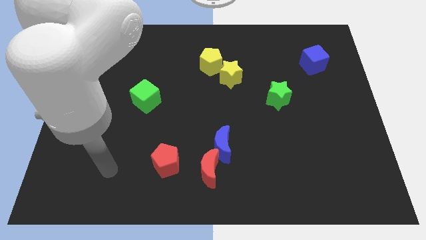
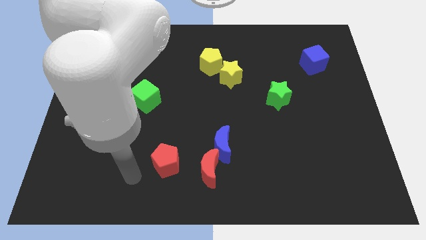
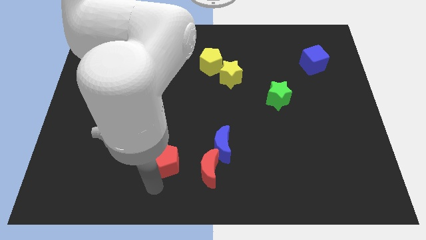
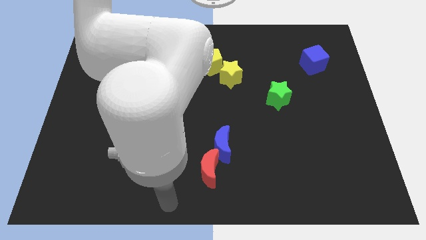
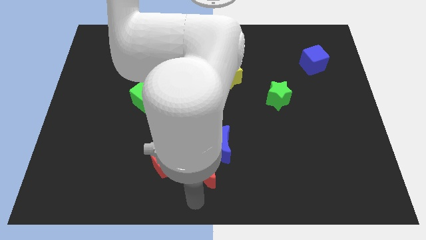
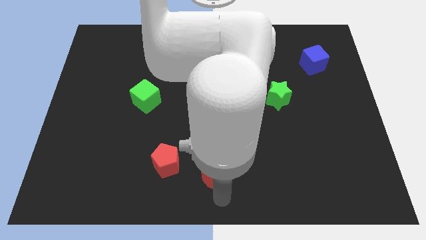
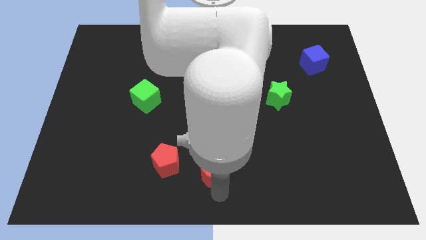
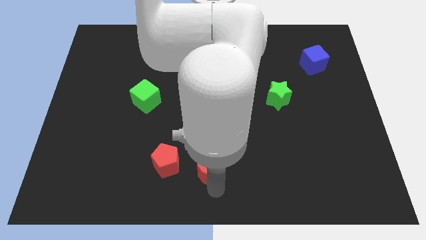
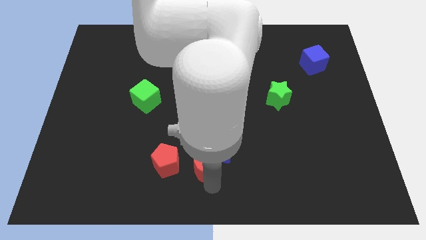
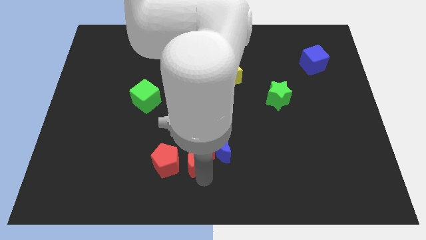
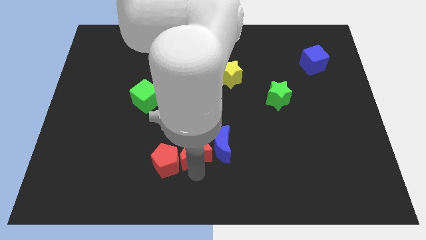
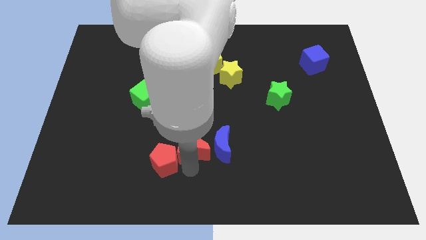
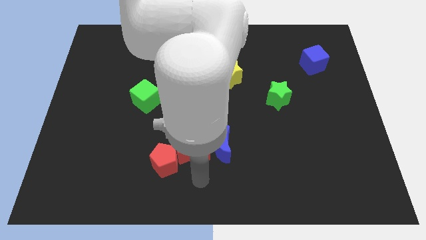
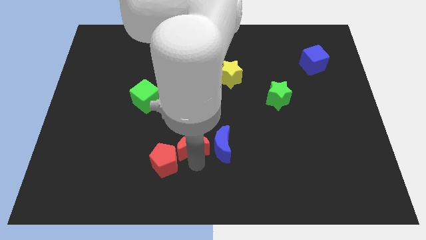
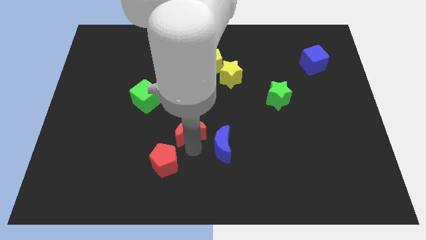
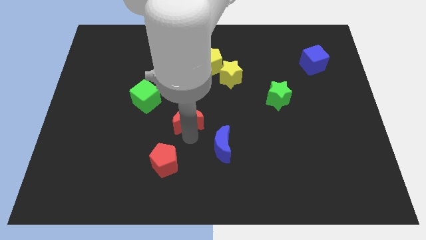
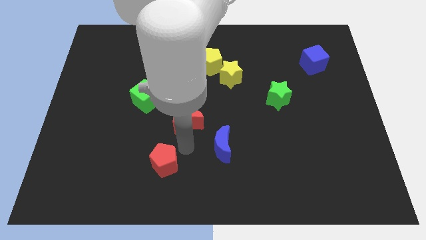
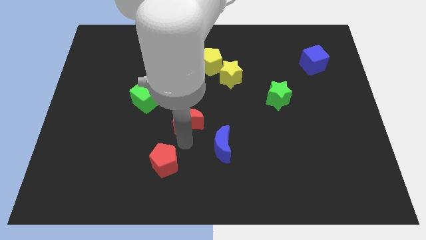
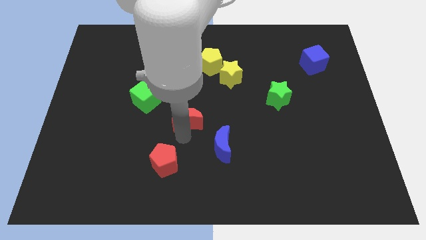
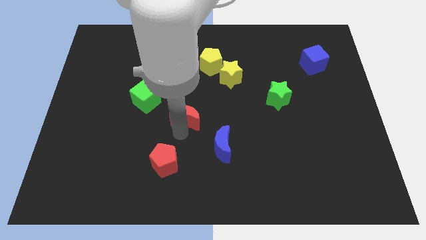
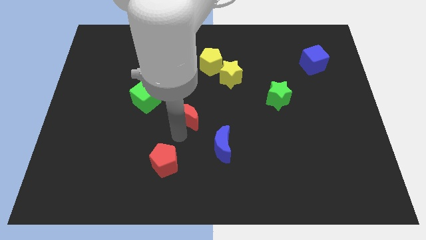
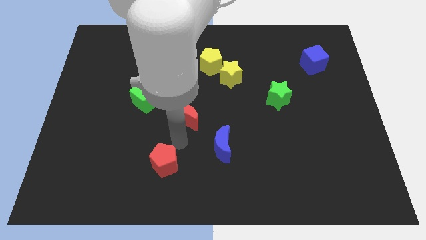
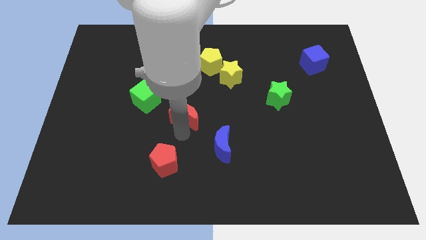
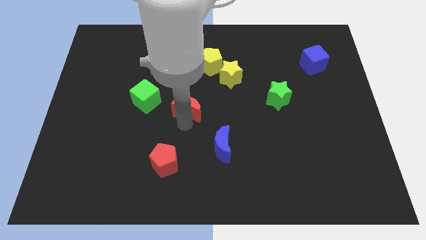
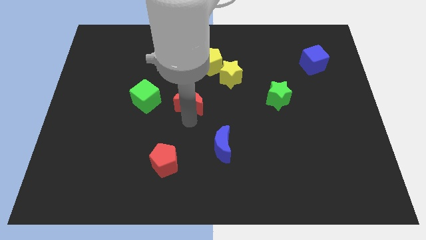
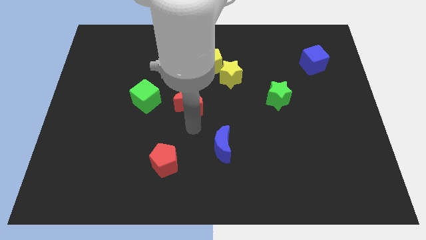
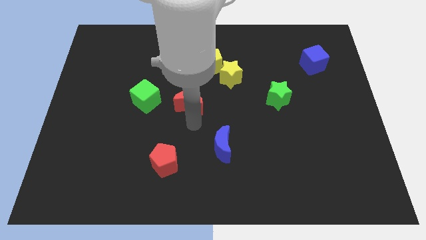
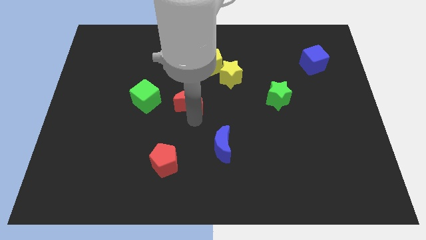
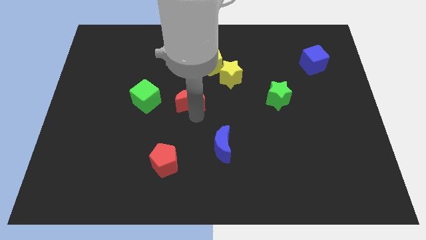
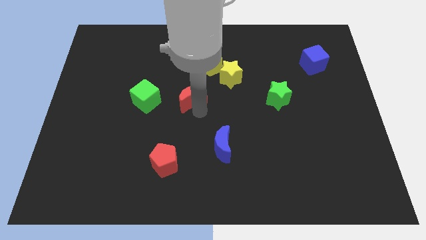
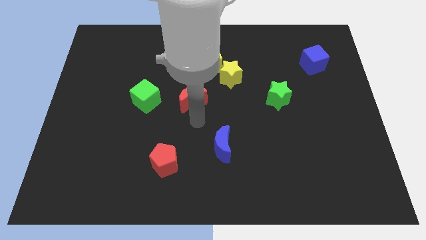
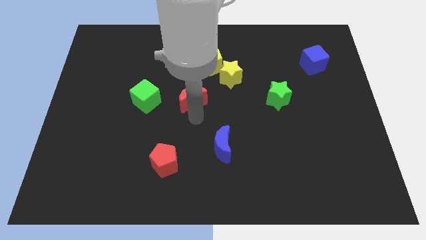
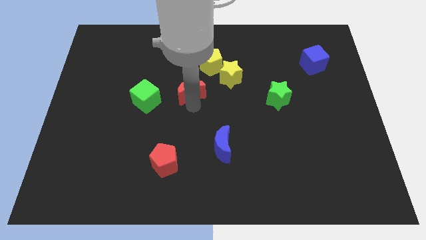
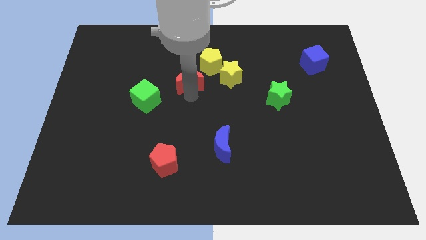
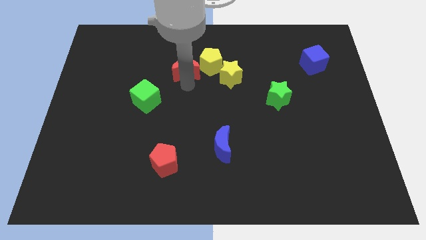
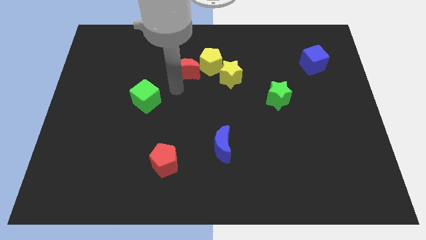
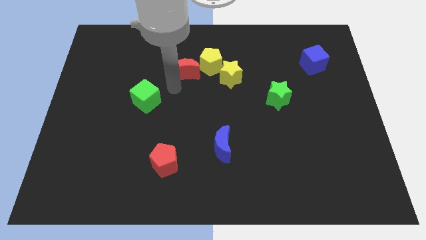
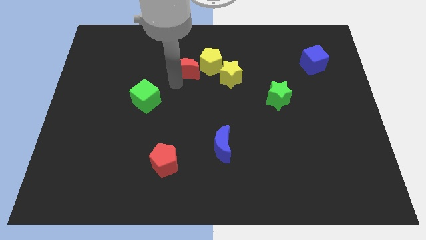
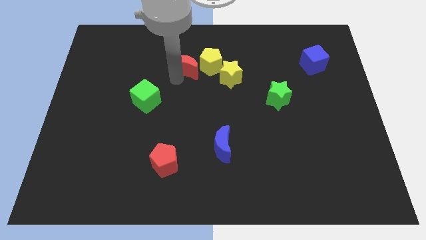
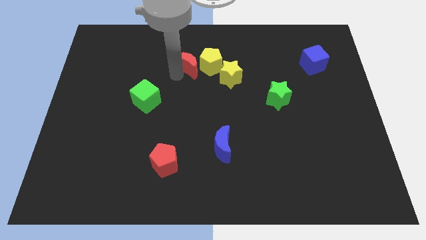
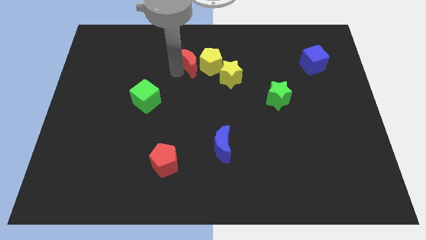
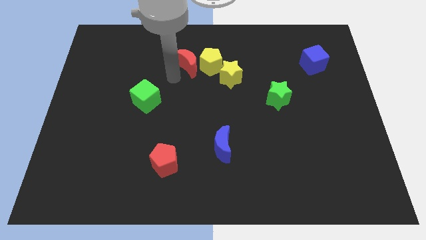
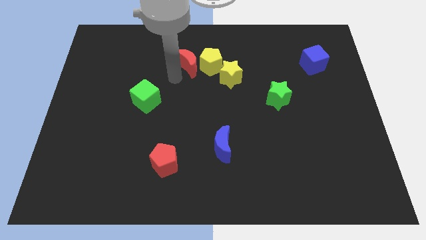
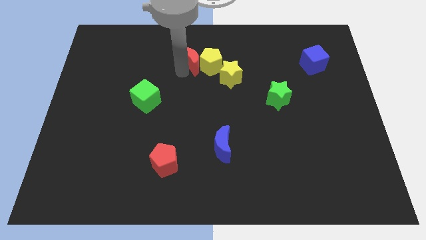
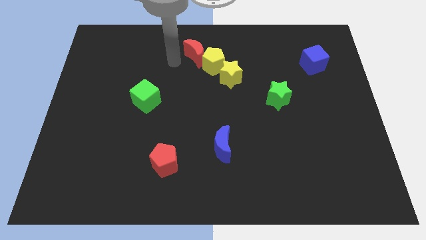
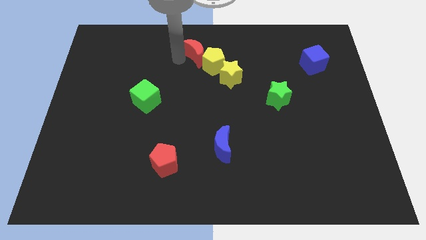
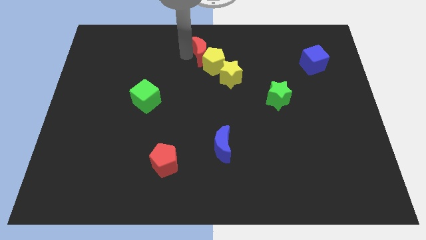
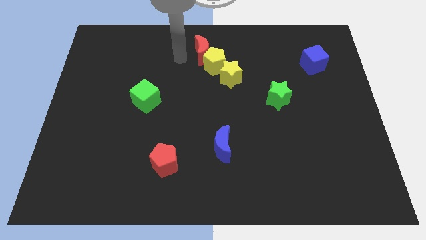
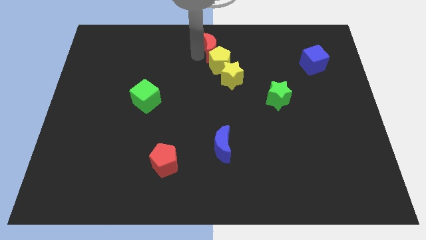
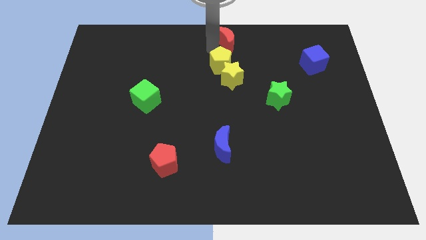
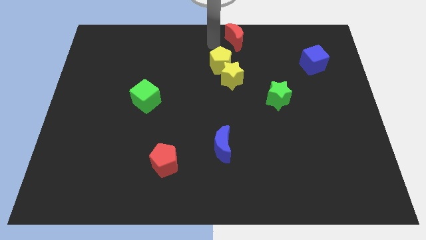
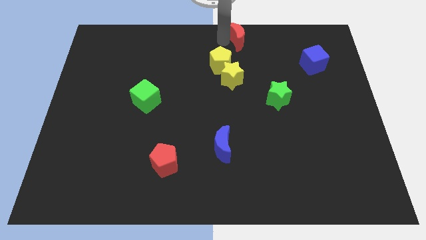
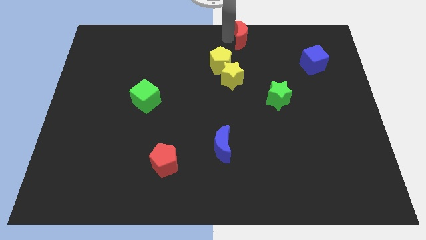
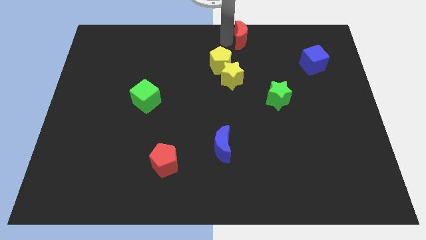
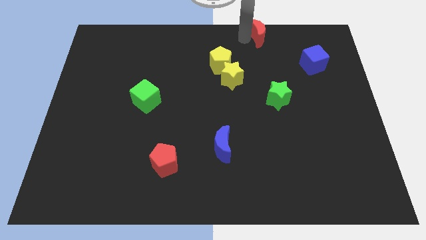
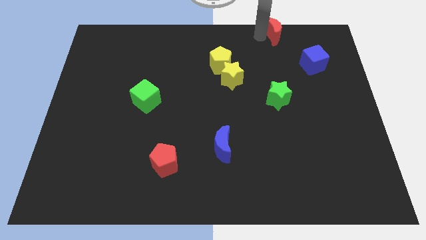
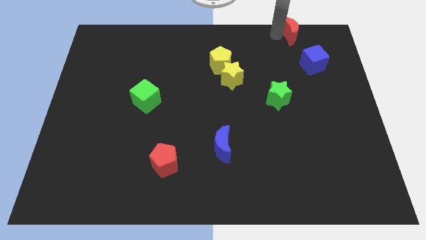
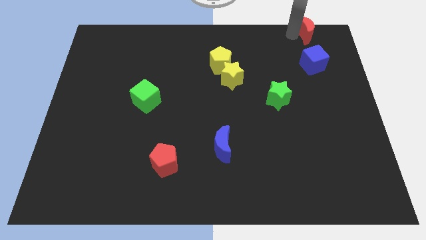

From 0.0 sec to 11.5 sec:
move the red moon to the upper right corner
